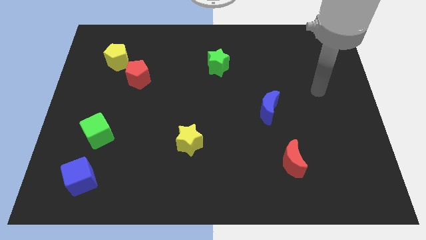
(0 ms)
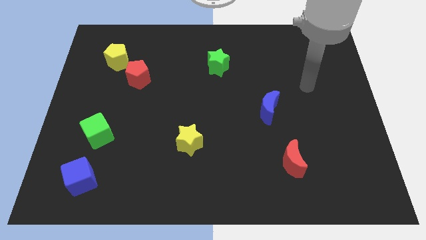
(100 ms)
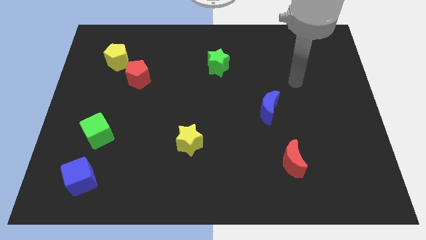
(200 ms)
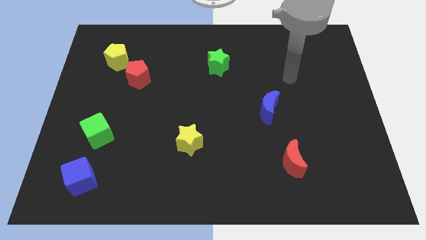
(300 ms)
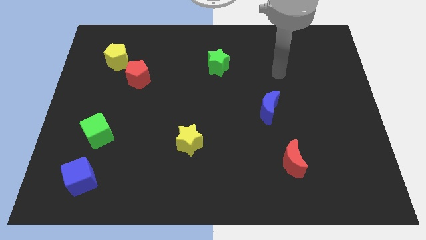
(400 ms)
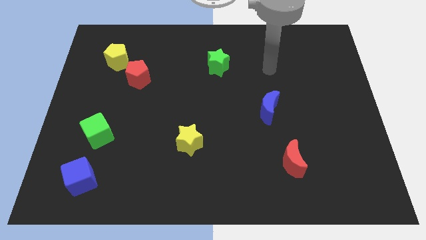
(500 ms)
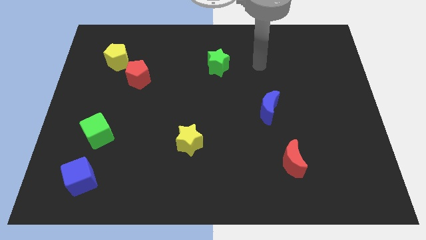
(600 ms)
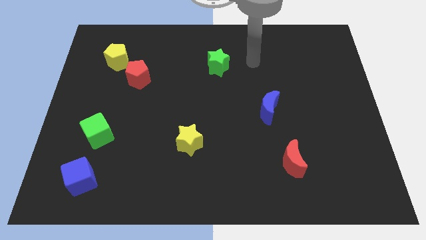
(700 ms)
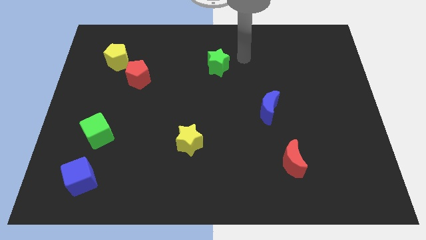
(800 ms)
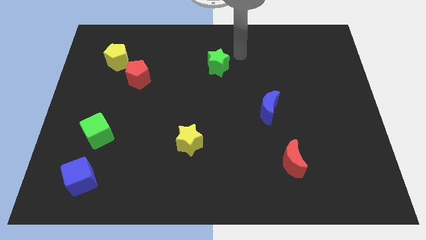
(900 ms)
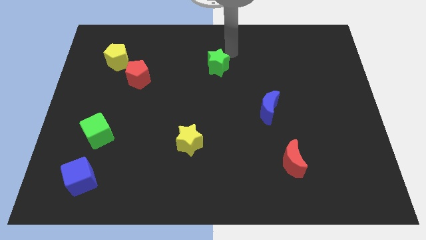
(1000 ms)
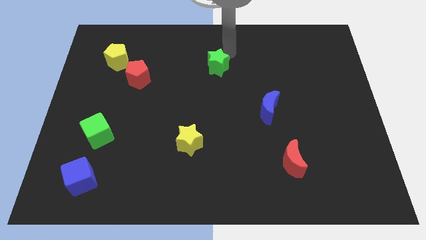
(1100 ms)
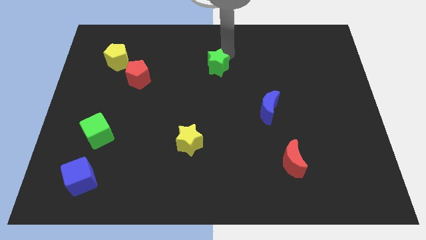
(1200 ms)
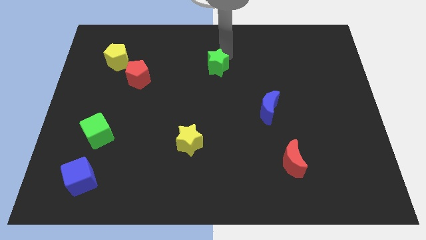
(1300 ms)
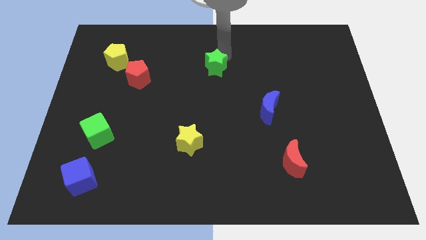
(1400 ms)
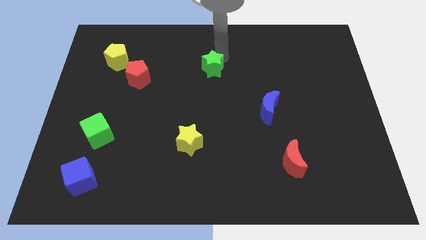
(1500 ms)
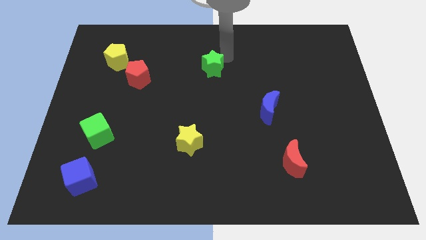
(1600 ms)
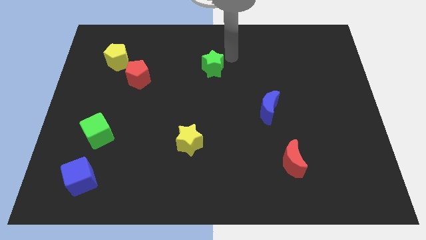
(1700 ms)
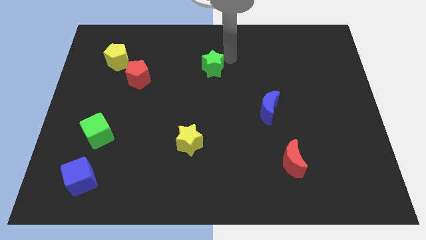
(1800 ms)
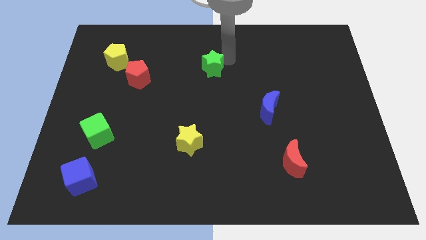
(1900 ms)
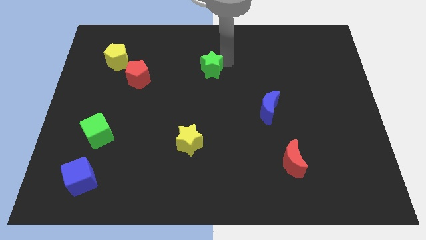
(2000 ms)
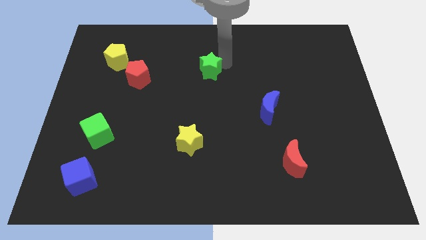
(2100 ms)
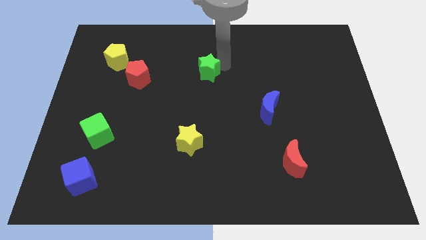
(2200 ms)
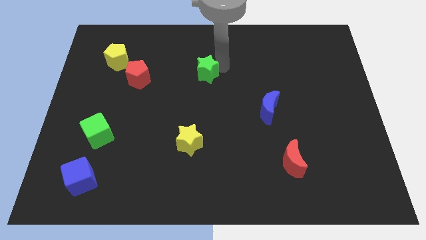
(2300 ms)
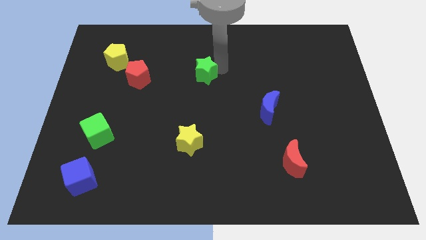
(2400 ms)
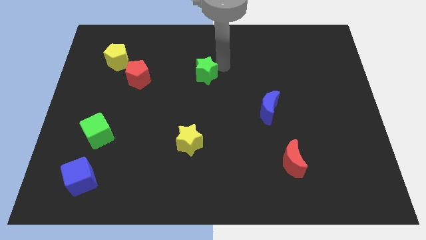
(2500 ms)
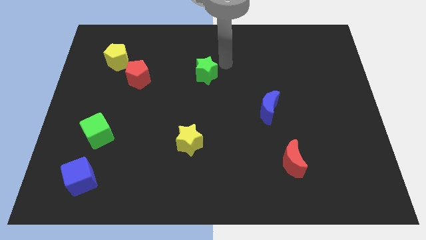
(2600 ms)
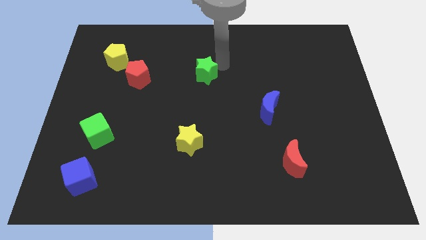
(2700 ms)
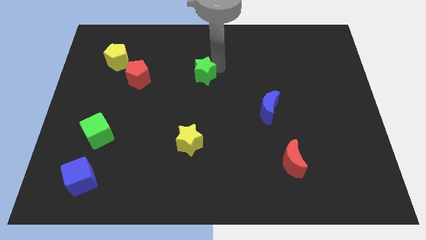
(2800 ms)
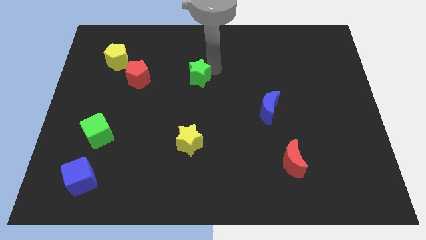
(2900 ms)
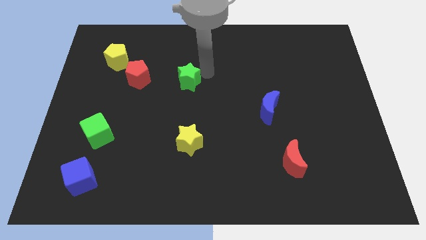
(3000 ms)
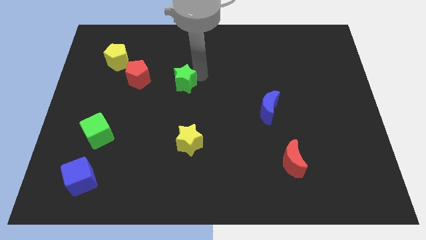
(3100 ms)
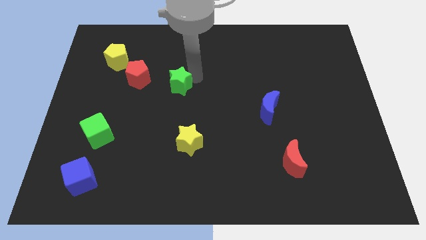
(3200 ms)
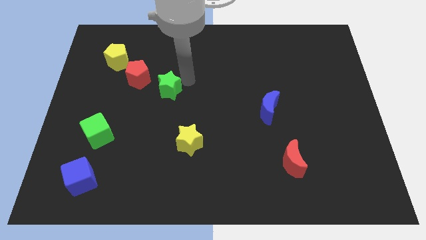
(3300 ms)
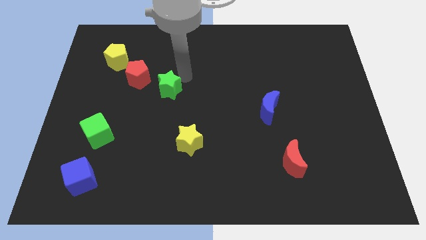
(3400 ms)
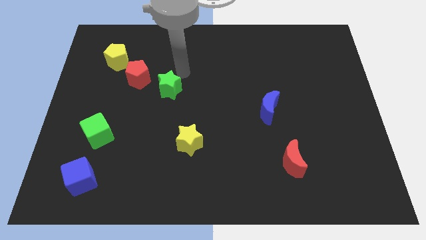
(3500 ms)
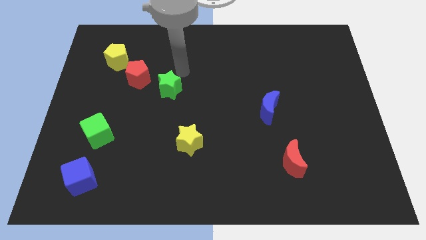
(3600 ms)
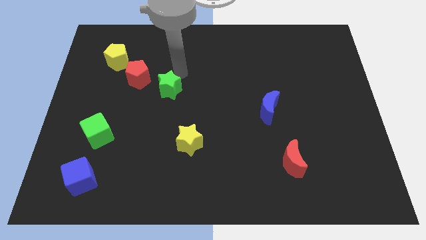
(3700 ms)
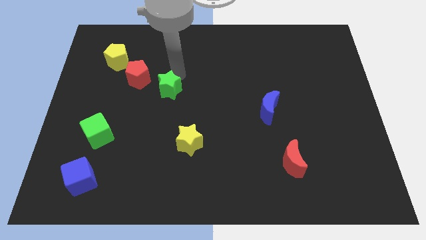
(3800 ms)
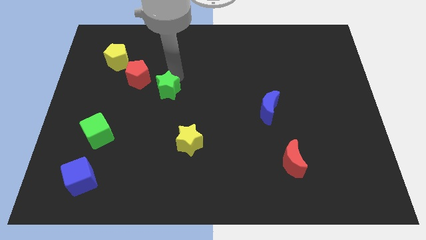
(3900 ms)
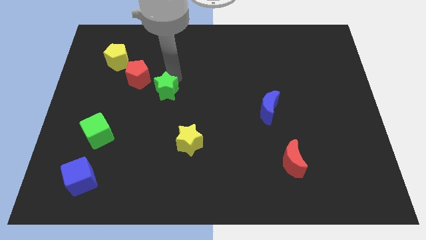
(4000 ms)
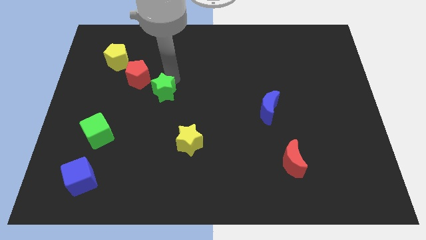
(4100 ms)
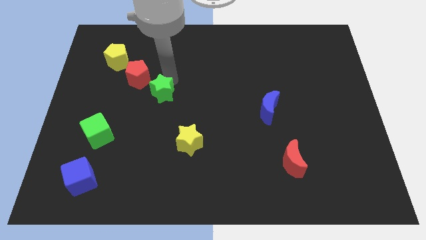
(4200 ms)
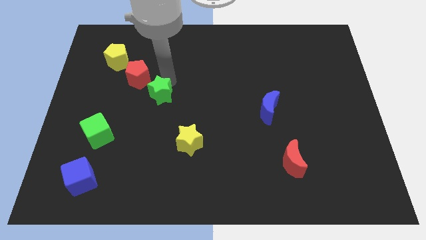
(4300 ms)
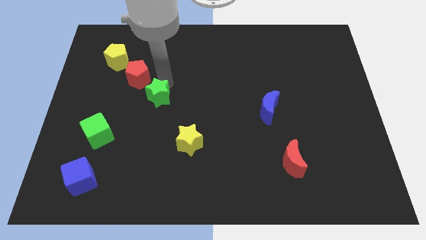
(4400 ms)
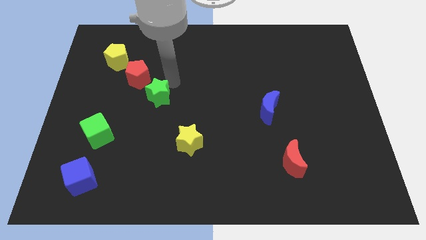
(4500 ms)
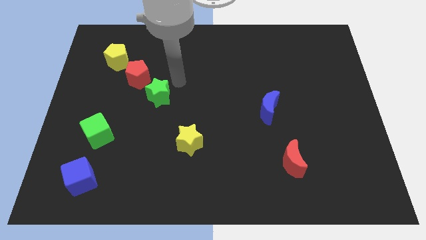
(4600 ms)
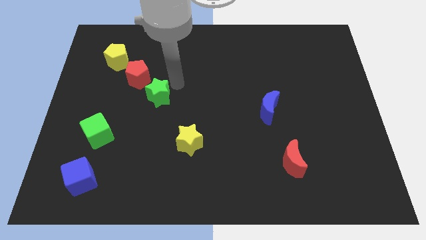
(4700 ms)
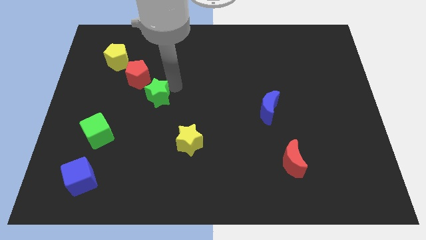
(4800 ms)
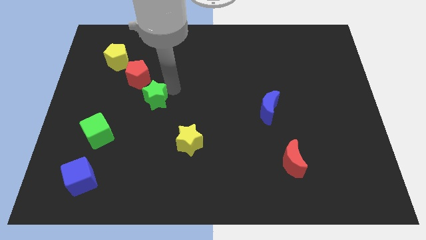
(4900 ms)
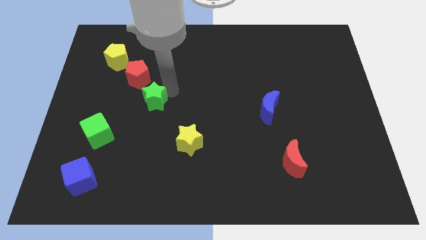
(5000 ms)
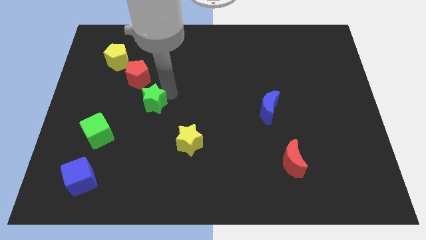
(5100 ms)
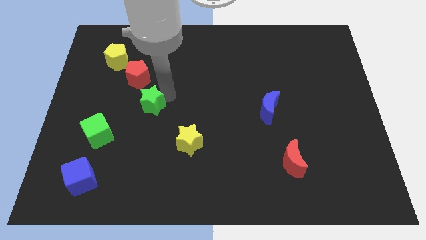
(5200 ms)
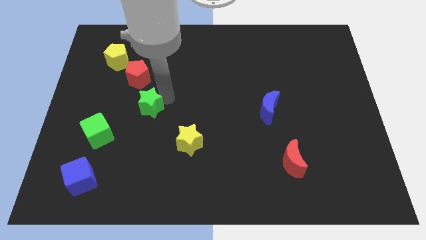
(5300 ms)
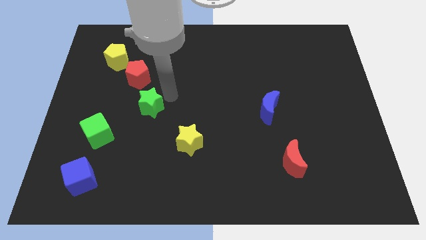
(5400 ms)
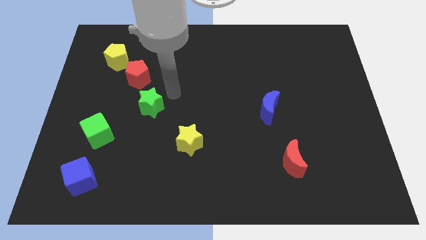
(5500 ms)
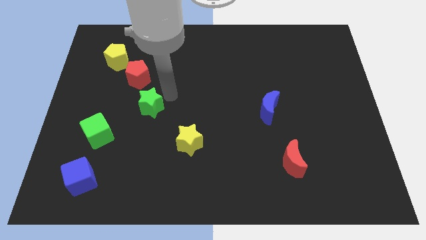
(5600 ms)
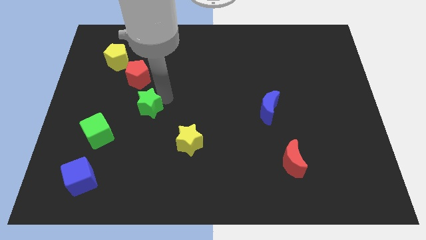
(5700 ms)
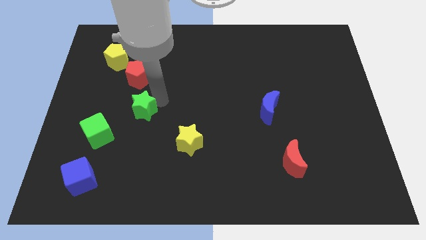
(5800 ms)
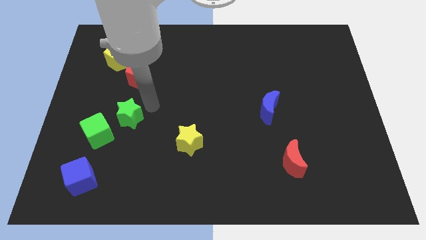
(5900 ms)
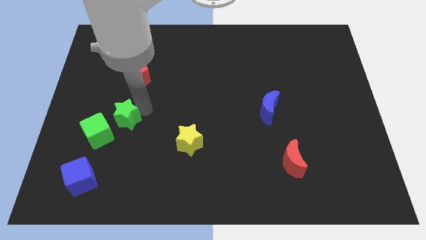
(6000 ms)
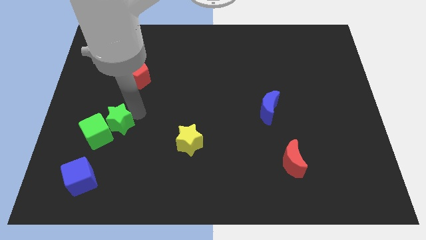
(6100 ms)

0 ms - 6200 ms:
push the green star to the green cube

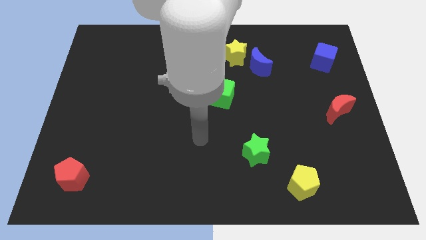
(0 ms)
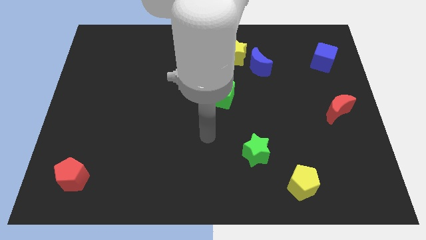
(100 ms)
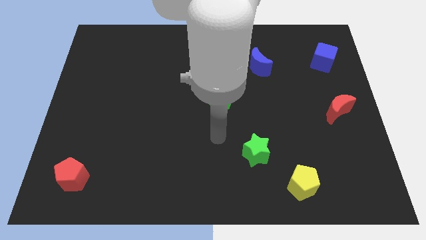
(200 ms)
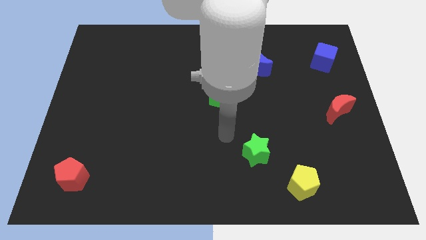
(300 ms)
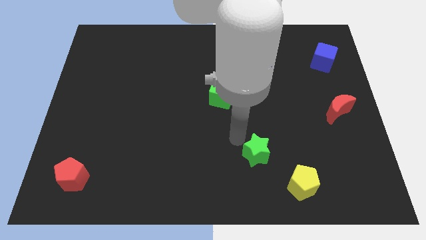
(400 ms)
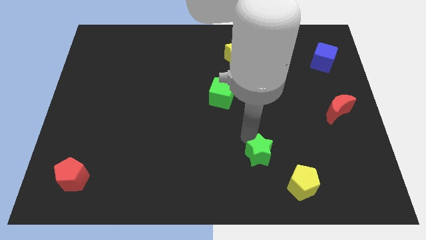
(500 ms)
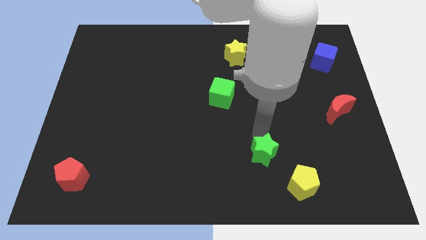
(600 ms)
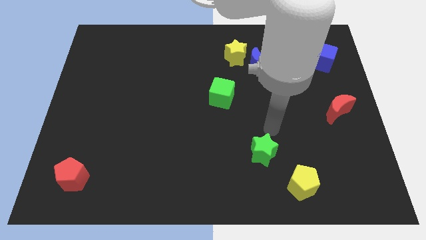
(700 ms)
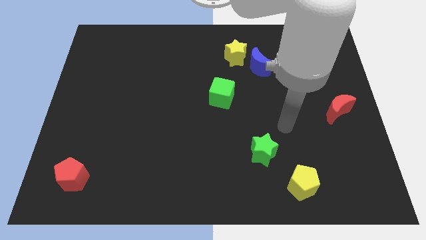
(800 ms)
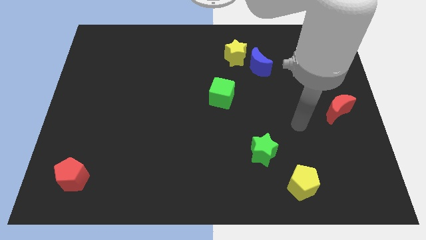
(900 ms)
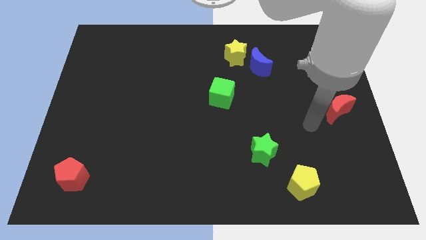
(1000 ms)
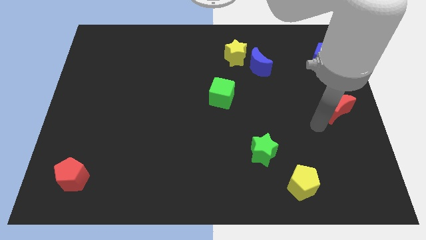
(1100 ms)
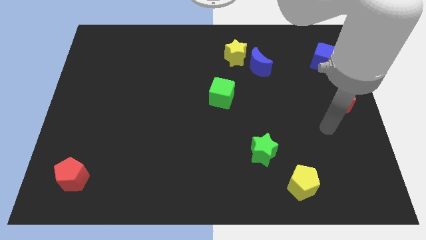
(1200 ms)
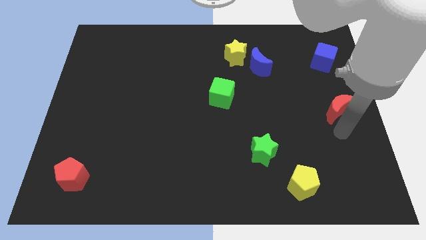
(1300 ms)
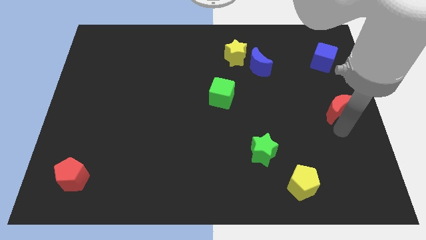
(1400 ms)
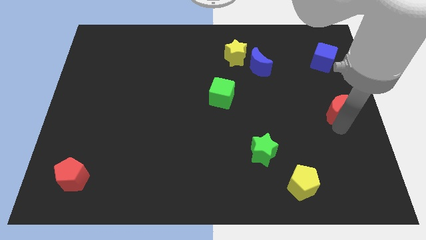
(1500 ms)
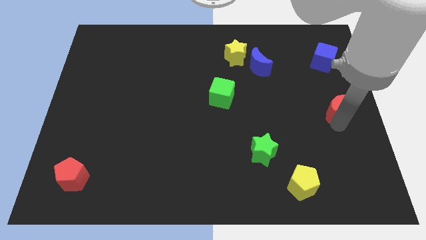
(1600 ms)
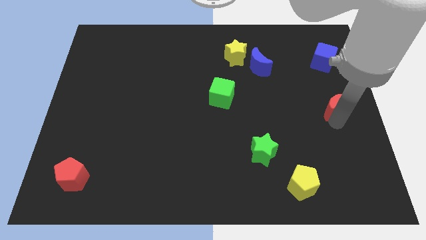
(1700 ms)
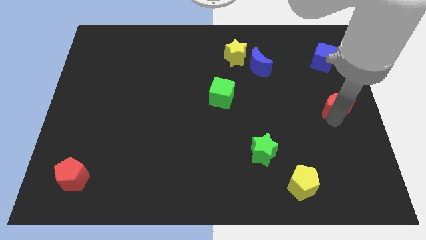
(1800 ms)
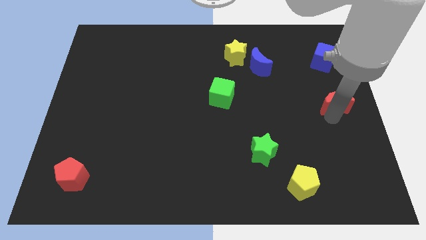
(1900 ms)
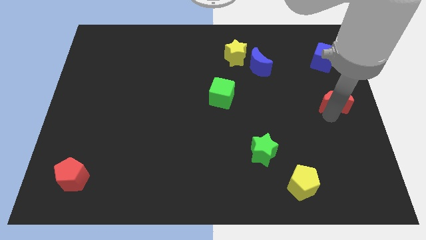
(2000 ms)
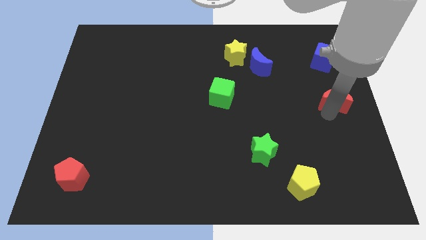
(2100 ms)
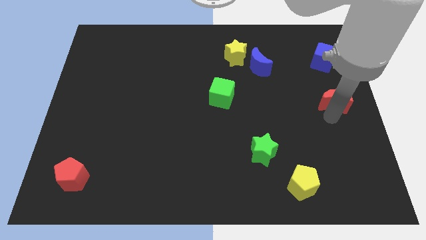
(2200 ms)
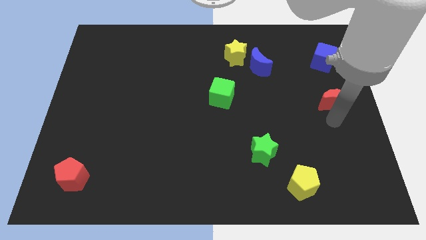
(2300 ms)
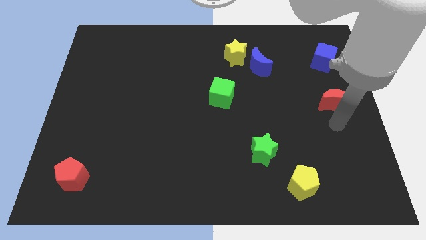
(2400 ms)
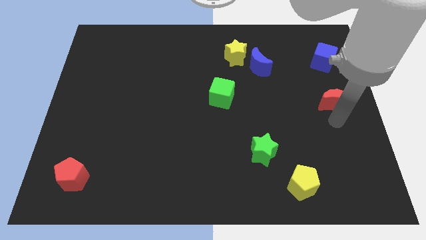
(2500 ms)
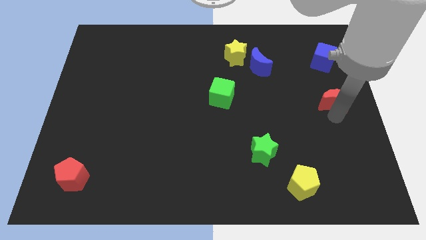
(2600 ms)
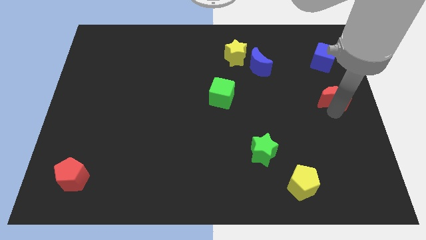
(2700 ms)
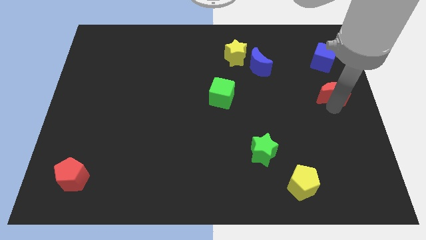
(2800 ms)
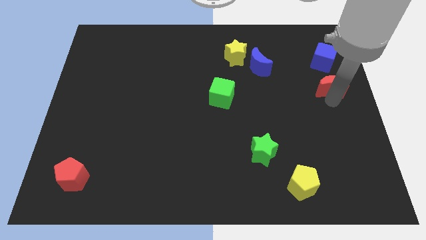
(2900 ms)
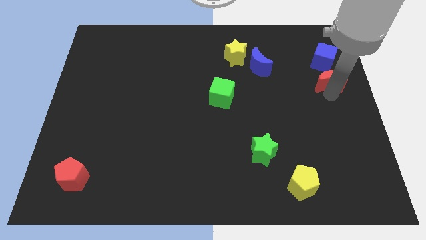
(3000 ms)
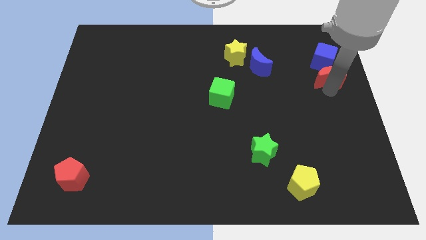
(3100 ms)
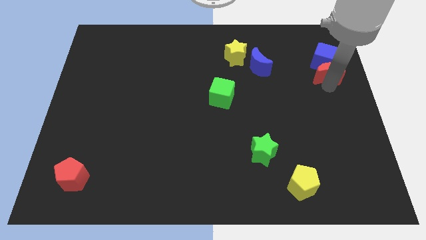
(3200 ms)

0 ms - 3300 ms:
push the red moon next to the blue cube
